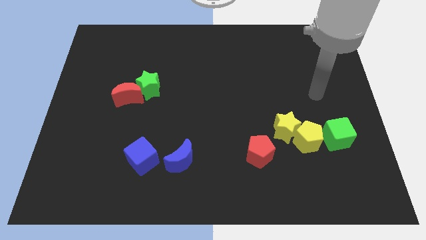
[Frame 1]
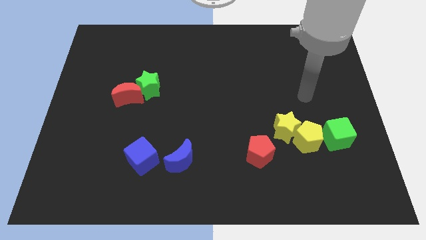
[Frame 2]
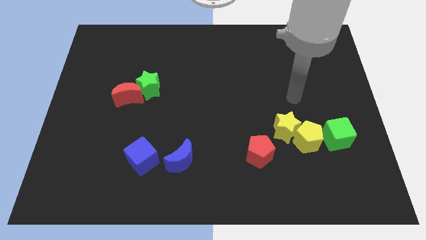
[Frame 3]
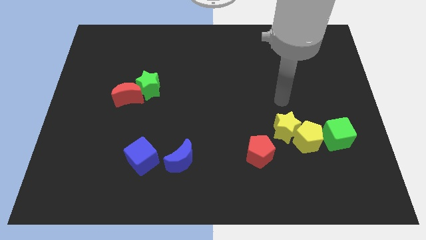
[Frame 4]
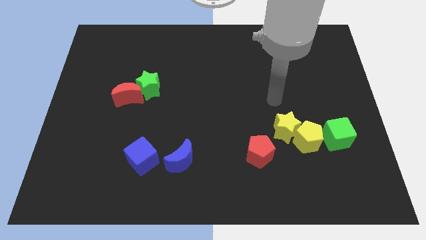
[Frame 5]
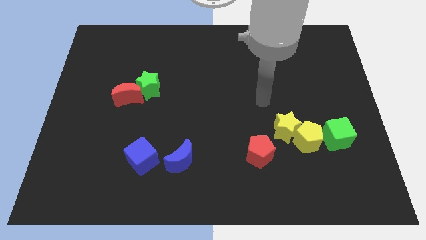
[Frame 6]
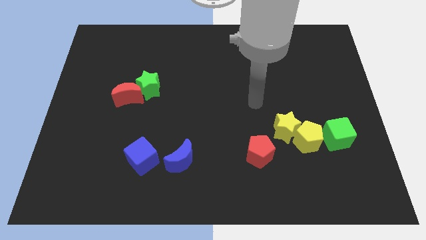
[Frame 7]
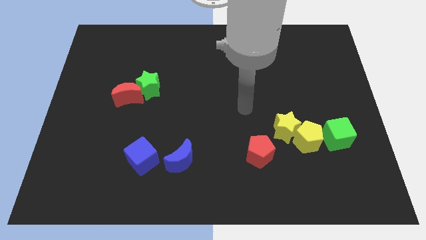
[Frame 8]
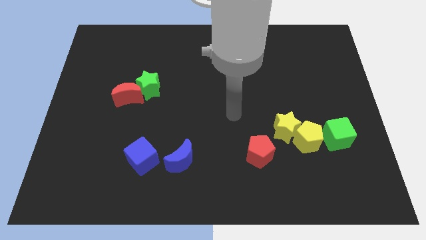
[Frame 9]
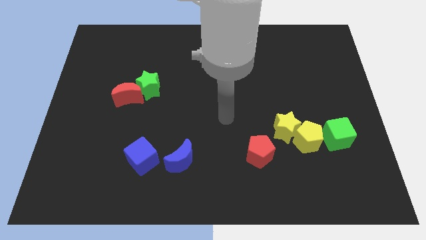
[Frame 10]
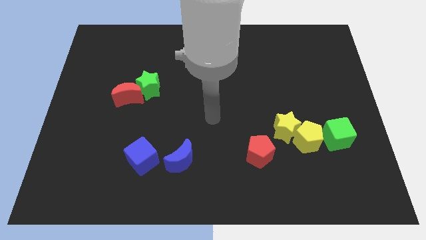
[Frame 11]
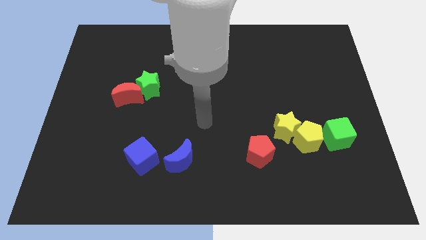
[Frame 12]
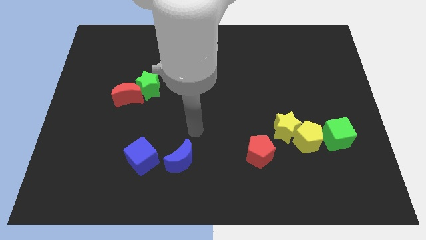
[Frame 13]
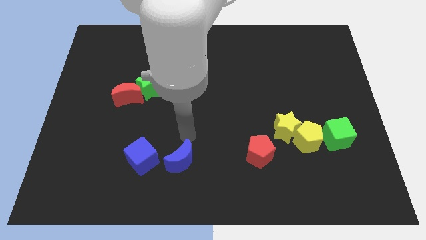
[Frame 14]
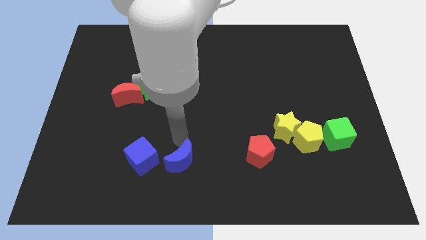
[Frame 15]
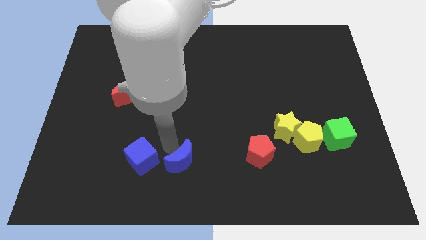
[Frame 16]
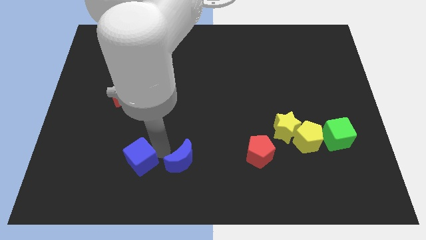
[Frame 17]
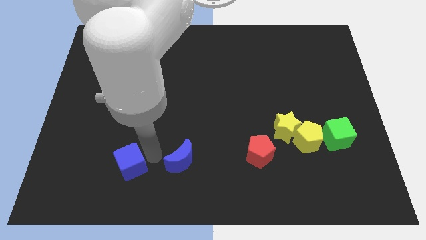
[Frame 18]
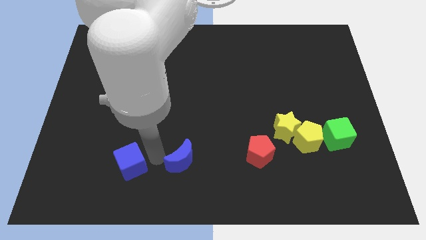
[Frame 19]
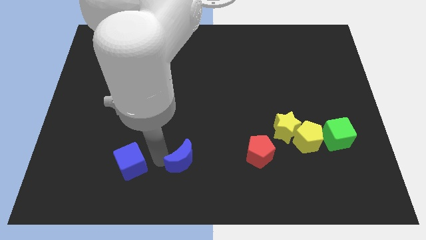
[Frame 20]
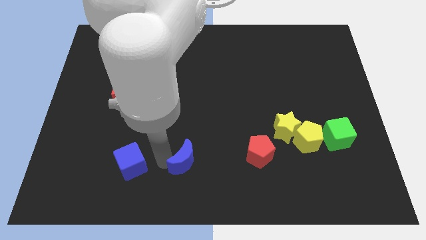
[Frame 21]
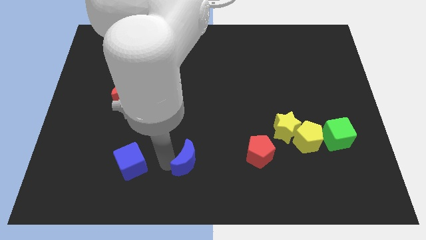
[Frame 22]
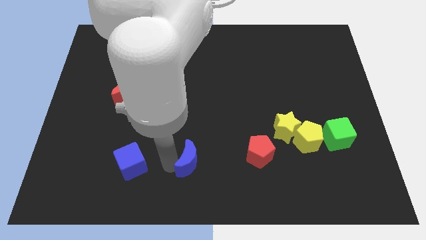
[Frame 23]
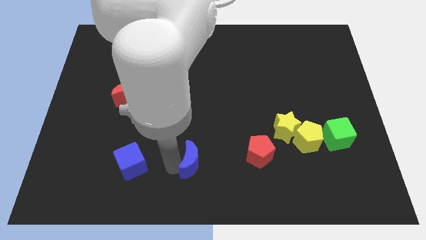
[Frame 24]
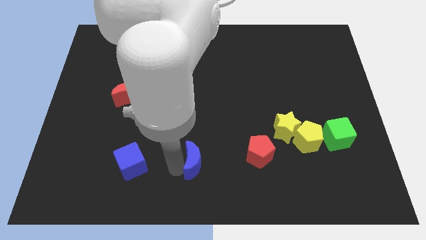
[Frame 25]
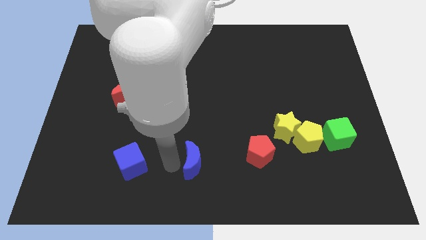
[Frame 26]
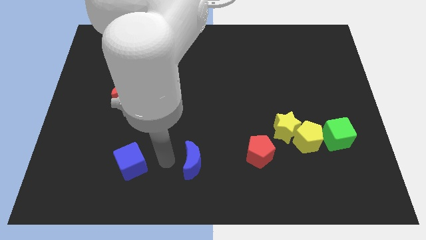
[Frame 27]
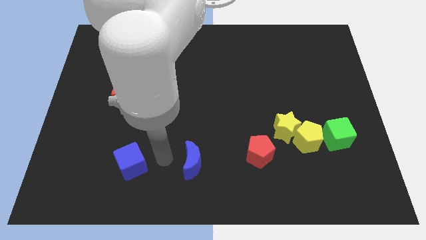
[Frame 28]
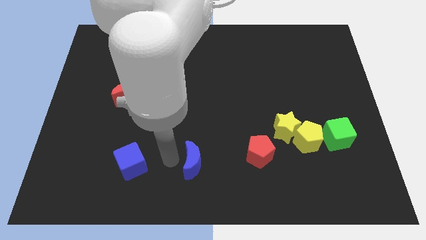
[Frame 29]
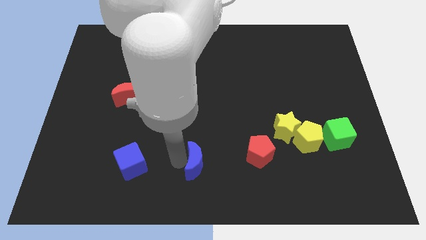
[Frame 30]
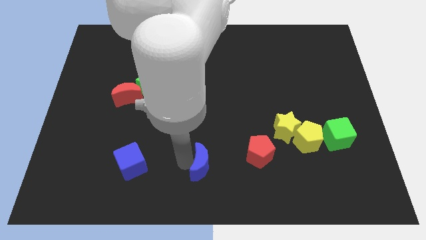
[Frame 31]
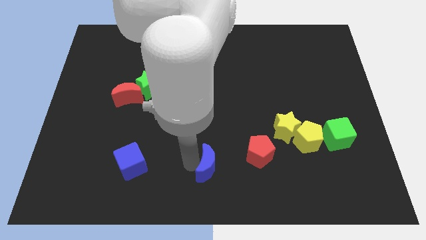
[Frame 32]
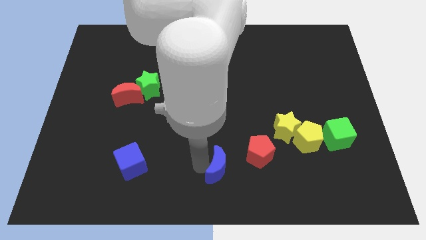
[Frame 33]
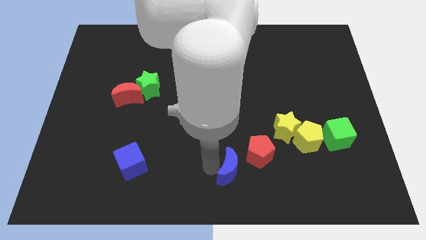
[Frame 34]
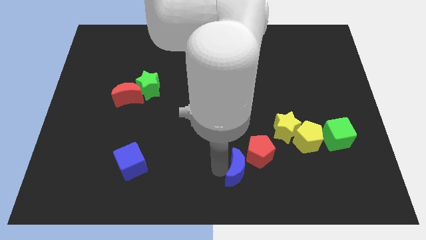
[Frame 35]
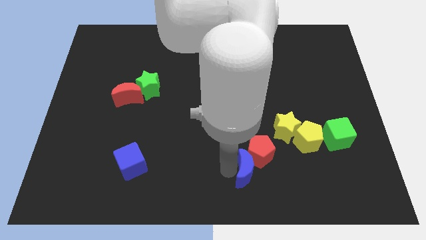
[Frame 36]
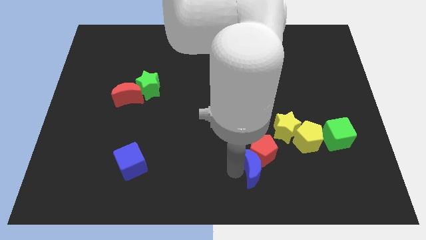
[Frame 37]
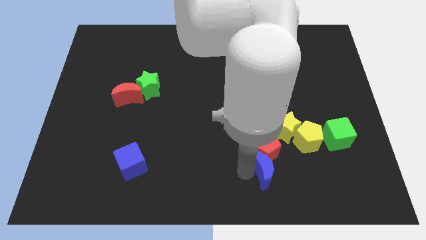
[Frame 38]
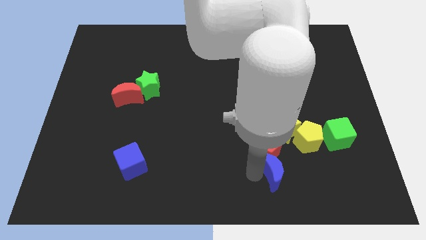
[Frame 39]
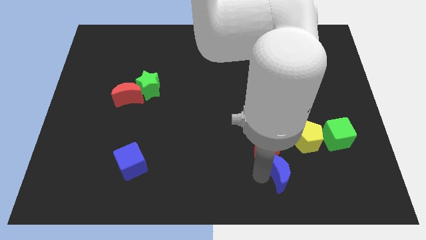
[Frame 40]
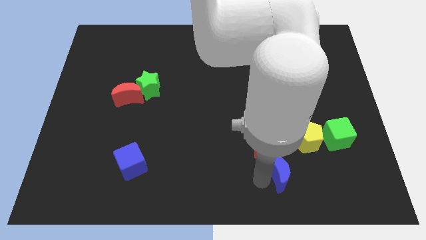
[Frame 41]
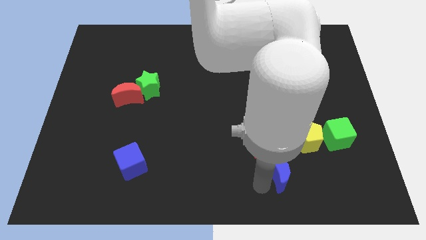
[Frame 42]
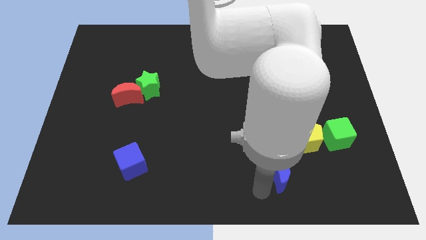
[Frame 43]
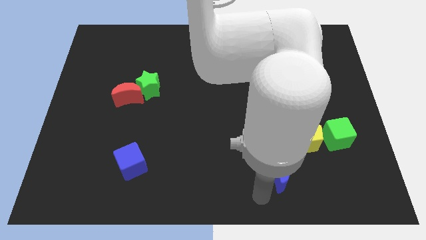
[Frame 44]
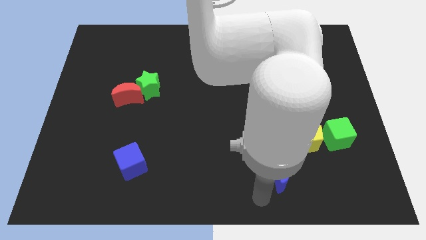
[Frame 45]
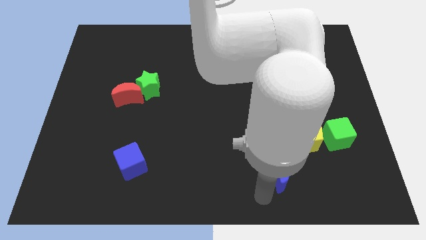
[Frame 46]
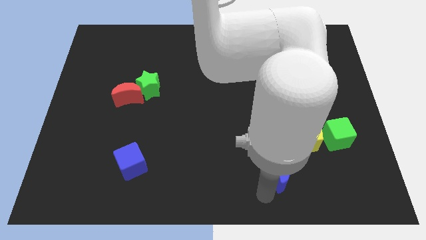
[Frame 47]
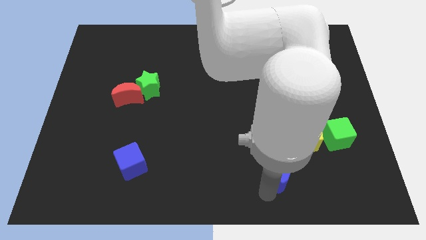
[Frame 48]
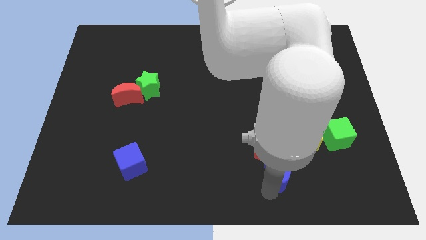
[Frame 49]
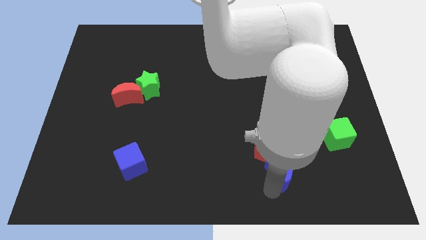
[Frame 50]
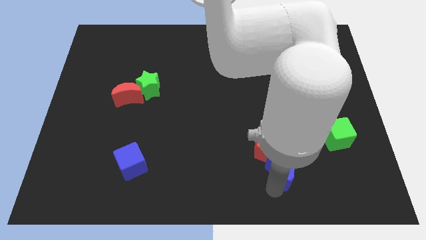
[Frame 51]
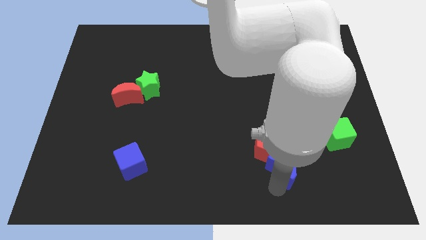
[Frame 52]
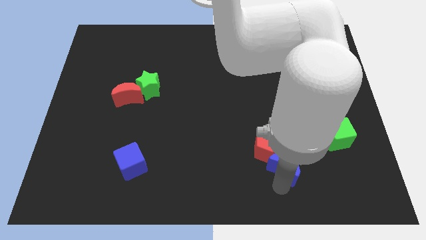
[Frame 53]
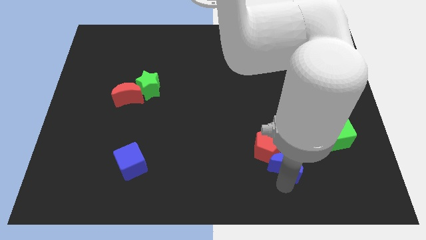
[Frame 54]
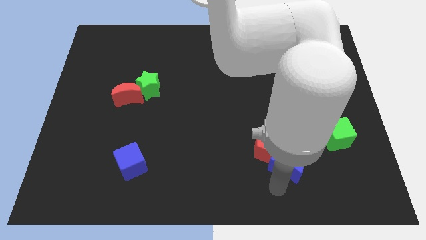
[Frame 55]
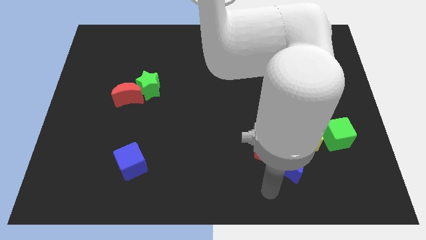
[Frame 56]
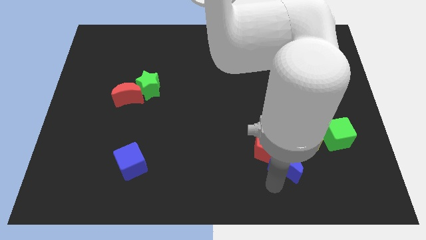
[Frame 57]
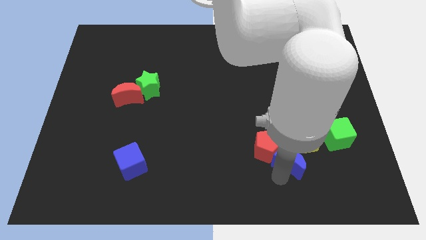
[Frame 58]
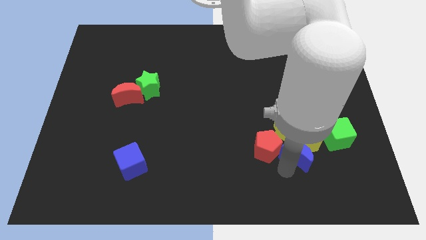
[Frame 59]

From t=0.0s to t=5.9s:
slide the blue moon close to the yellow pentagon

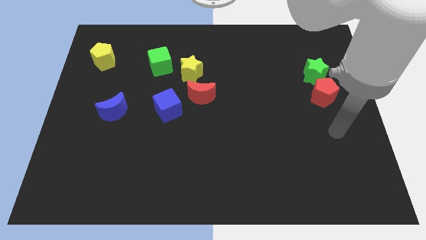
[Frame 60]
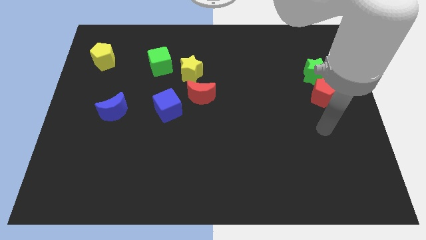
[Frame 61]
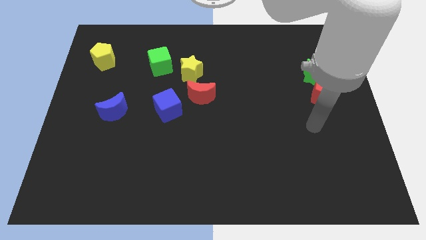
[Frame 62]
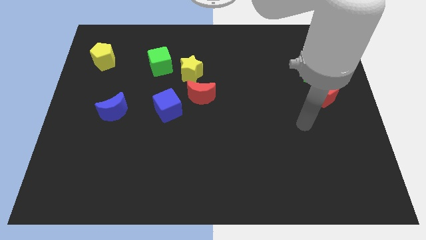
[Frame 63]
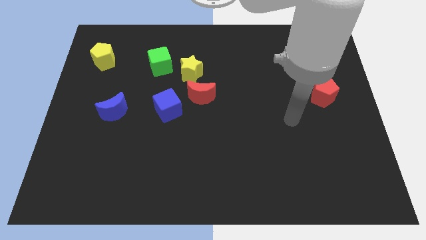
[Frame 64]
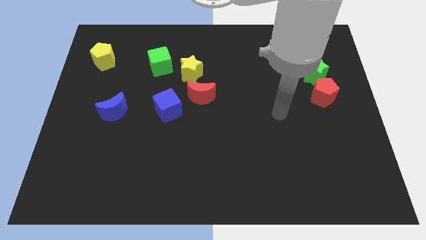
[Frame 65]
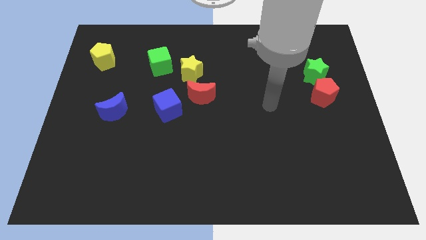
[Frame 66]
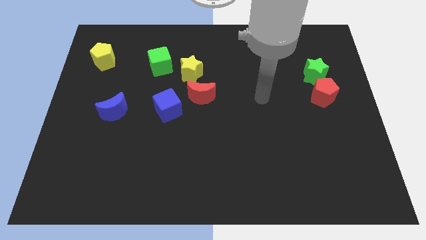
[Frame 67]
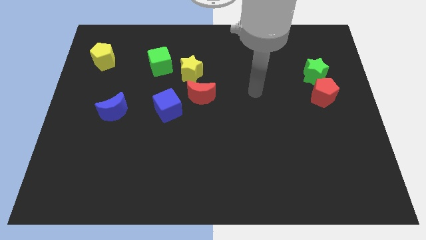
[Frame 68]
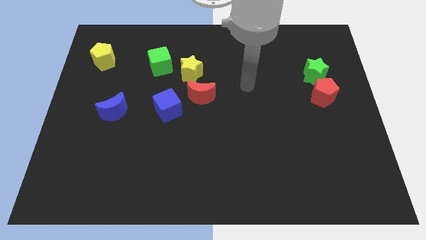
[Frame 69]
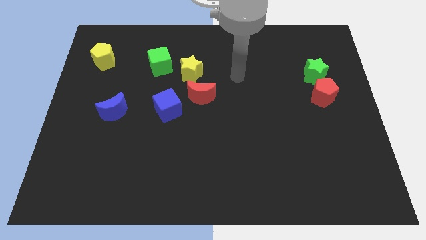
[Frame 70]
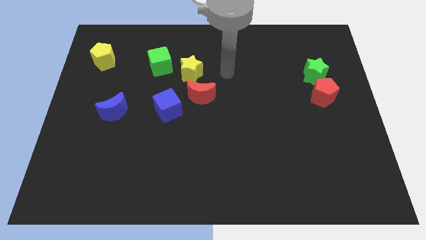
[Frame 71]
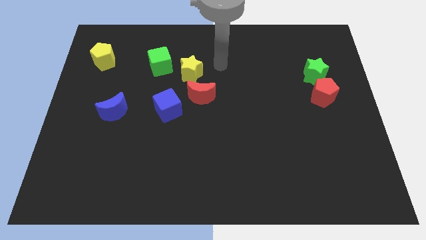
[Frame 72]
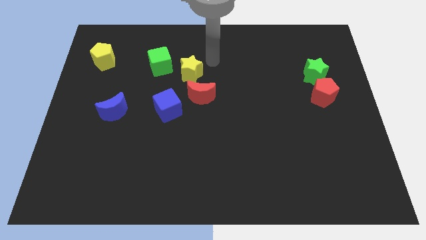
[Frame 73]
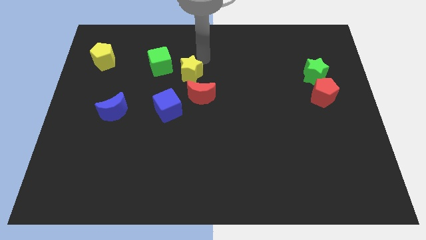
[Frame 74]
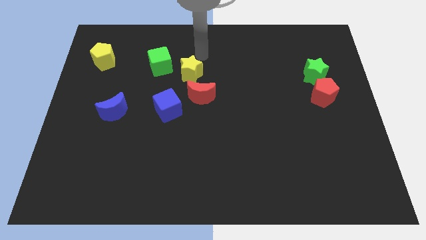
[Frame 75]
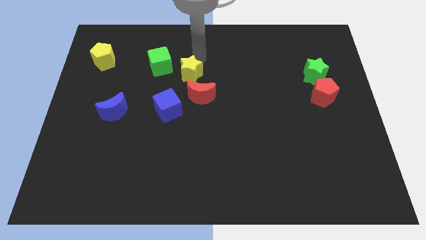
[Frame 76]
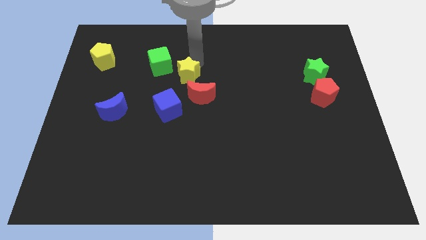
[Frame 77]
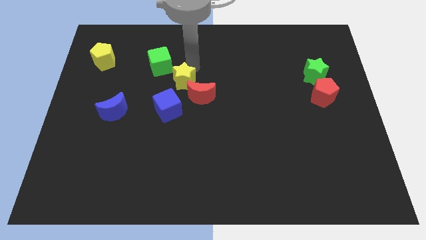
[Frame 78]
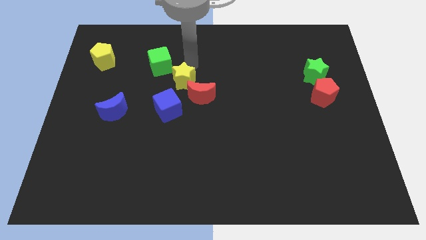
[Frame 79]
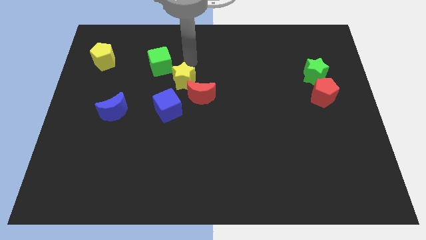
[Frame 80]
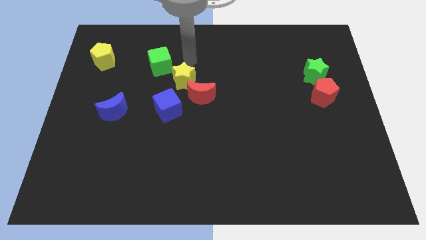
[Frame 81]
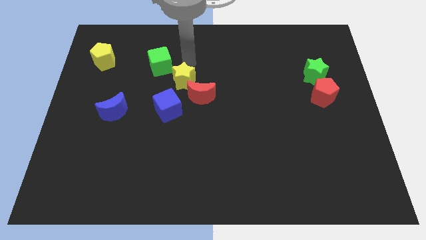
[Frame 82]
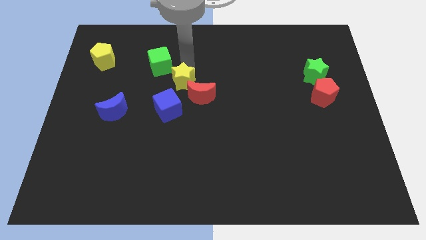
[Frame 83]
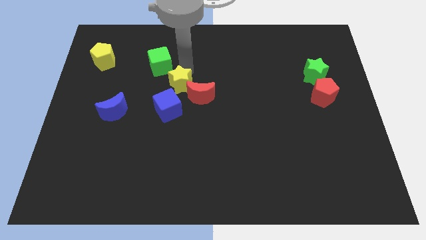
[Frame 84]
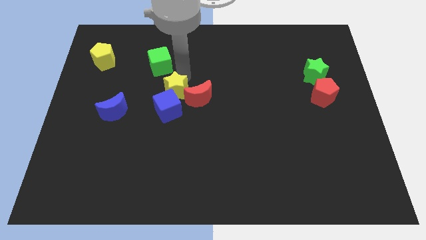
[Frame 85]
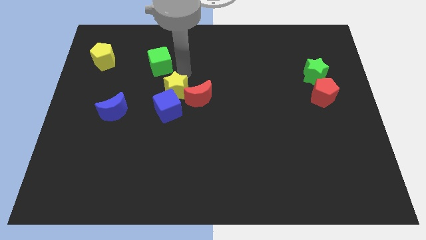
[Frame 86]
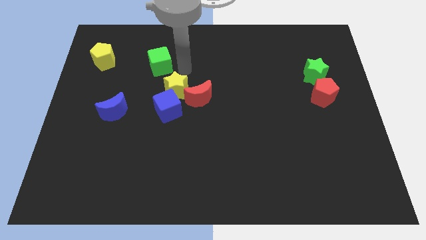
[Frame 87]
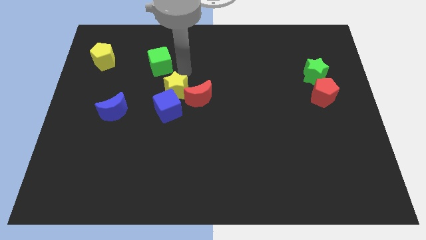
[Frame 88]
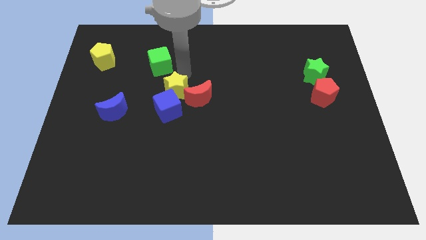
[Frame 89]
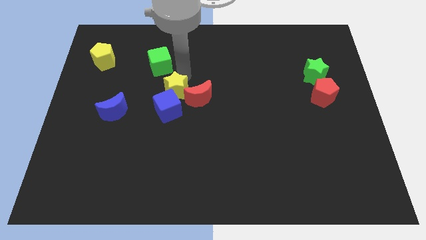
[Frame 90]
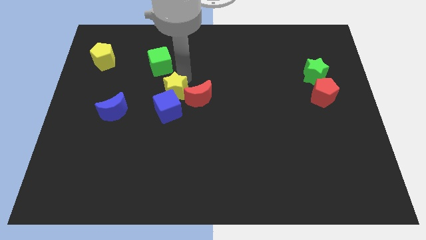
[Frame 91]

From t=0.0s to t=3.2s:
put the yellow star towards the blue cube
